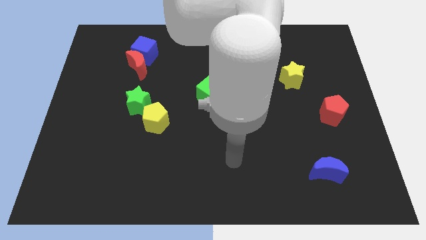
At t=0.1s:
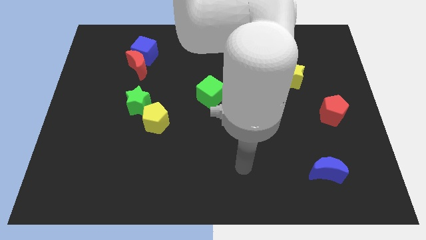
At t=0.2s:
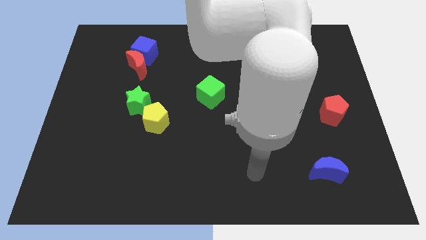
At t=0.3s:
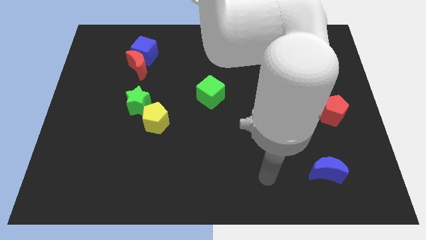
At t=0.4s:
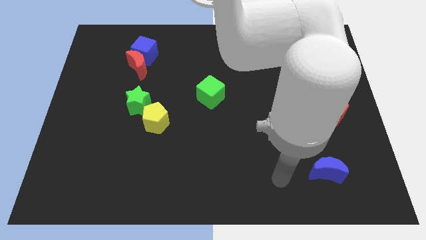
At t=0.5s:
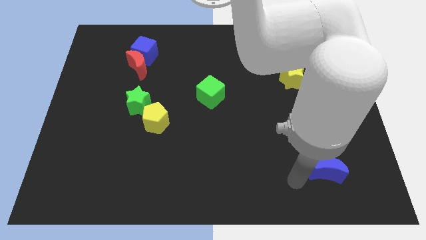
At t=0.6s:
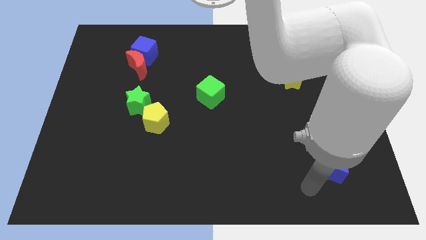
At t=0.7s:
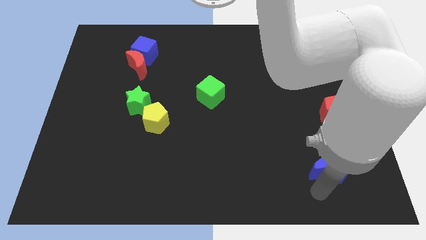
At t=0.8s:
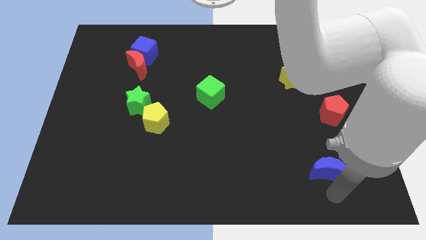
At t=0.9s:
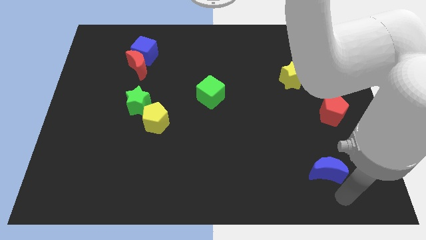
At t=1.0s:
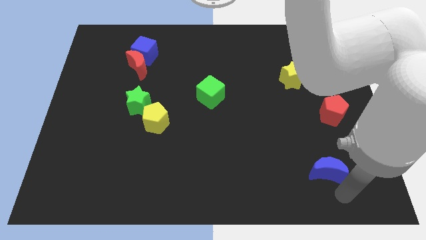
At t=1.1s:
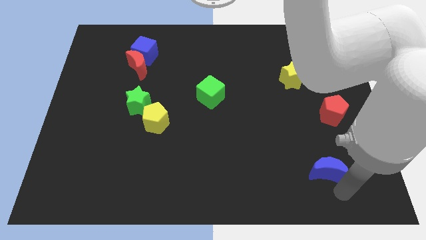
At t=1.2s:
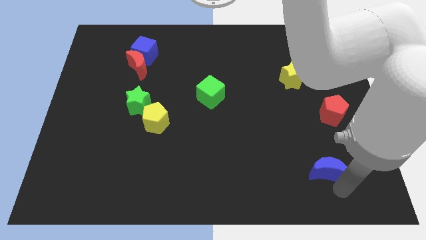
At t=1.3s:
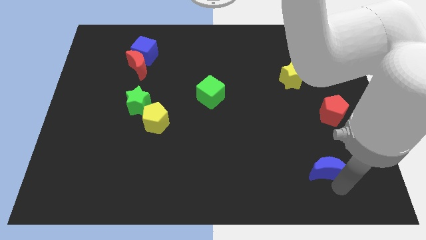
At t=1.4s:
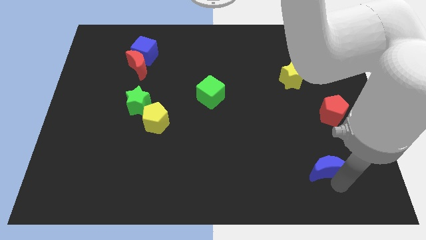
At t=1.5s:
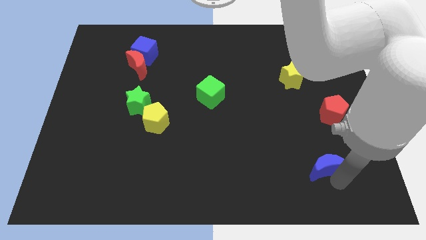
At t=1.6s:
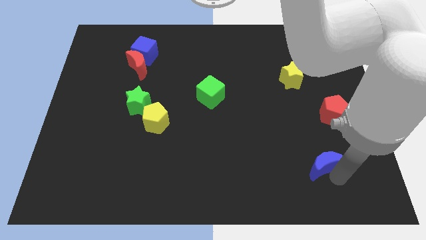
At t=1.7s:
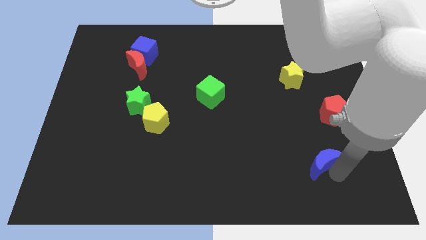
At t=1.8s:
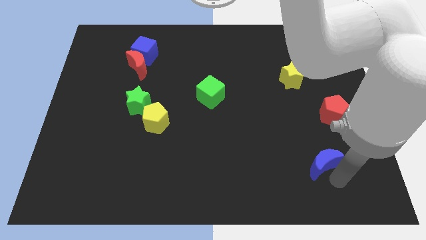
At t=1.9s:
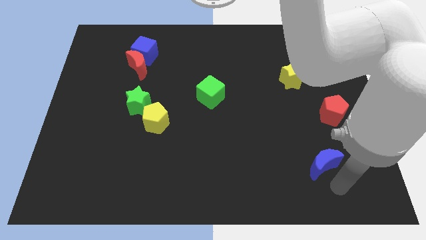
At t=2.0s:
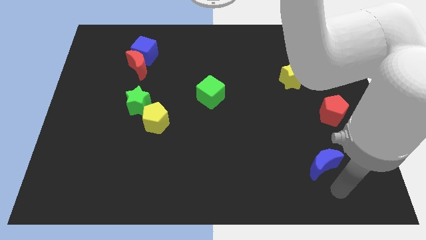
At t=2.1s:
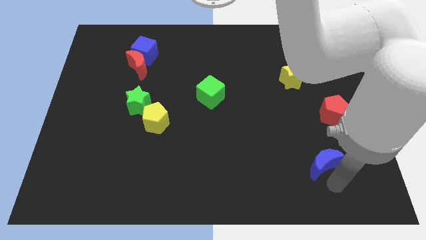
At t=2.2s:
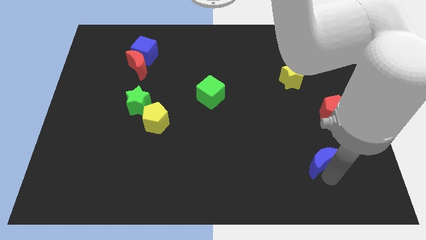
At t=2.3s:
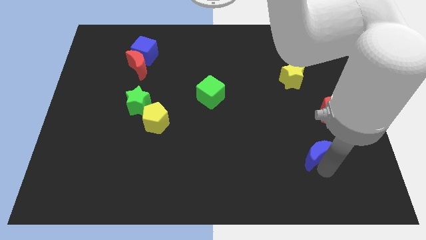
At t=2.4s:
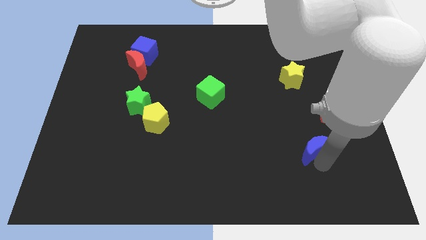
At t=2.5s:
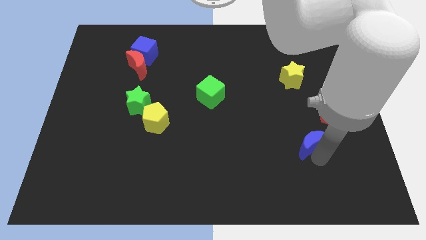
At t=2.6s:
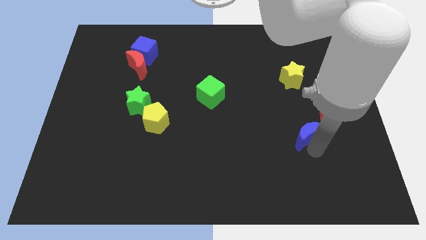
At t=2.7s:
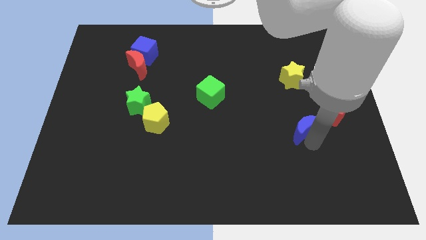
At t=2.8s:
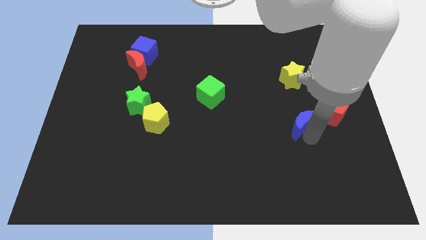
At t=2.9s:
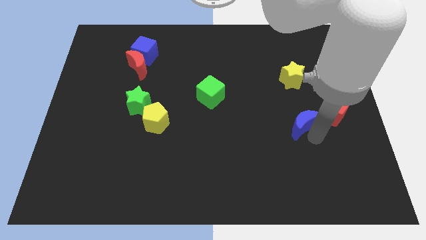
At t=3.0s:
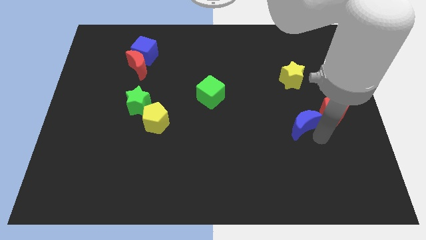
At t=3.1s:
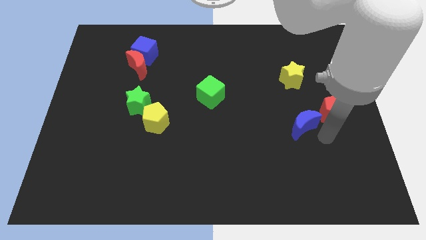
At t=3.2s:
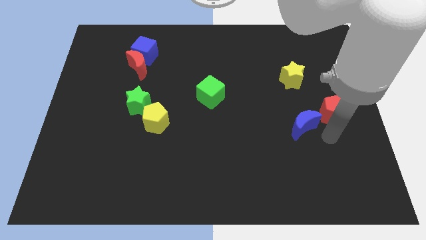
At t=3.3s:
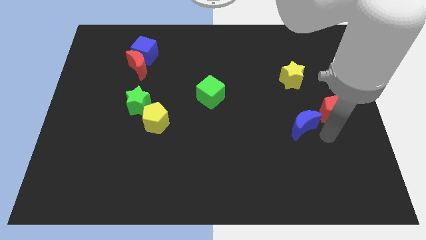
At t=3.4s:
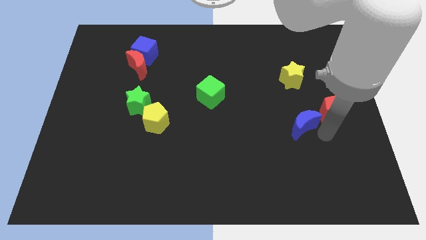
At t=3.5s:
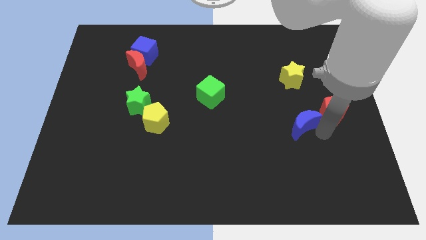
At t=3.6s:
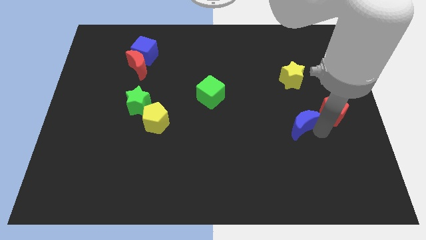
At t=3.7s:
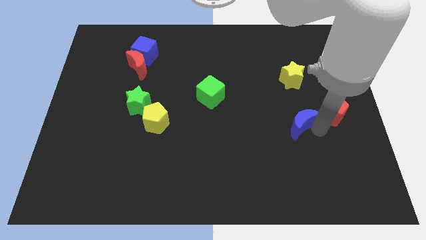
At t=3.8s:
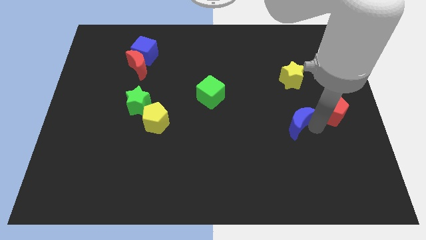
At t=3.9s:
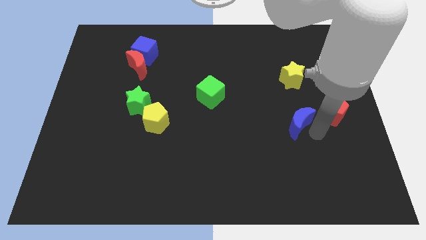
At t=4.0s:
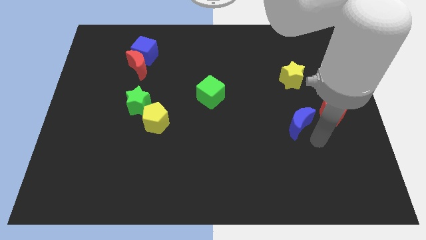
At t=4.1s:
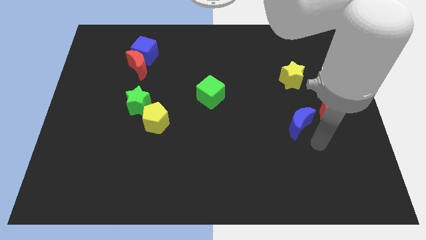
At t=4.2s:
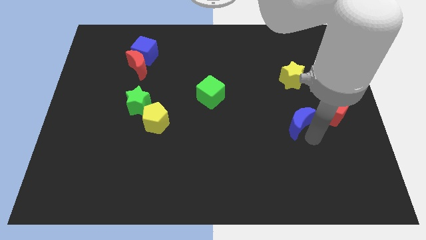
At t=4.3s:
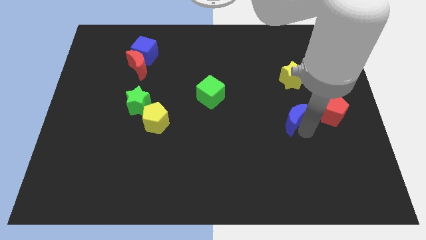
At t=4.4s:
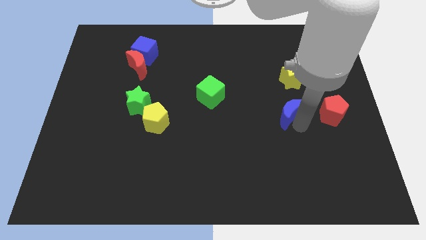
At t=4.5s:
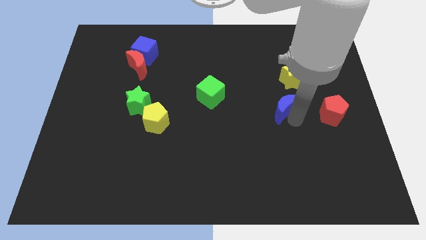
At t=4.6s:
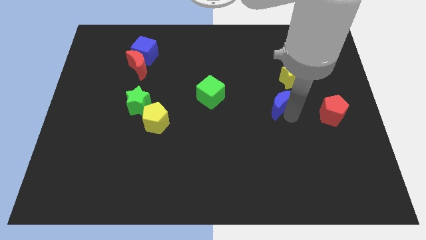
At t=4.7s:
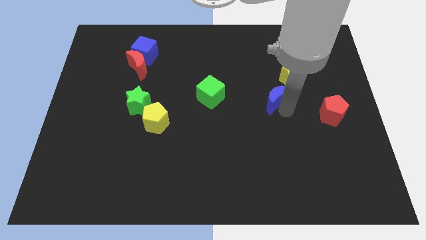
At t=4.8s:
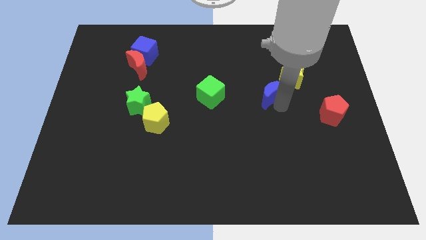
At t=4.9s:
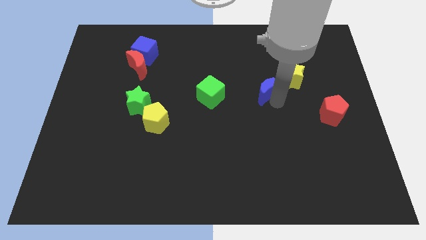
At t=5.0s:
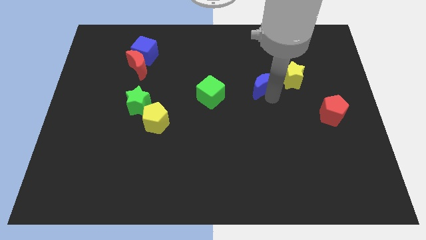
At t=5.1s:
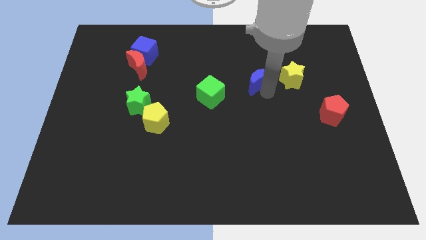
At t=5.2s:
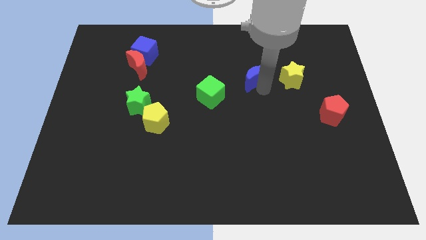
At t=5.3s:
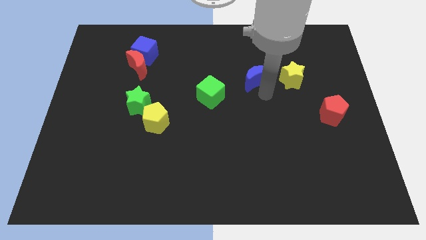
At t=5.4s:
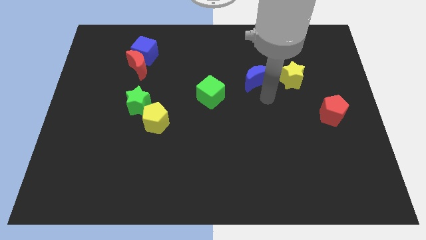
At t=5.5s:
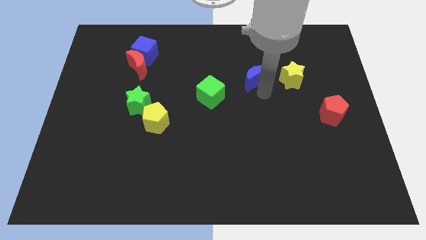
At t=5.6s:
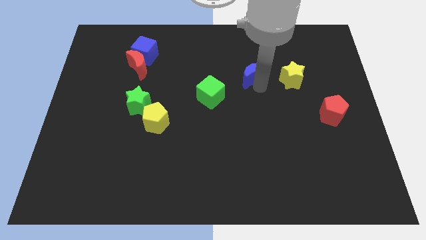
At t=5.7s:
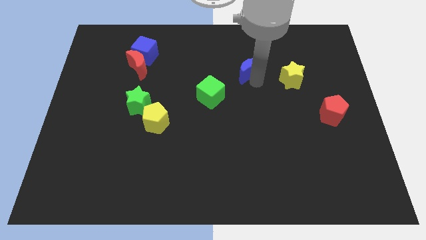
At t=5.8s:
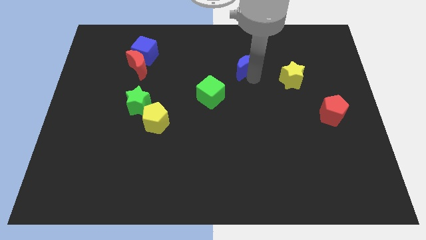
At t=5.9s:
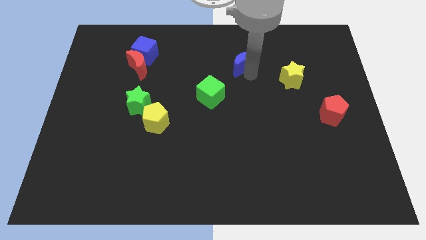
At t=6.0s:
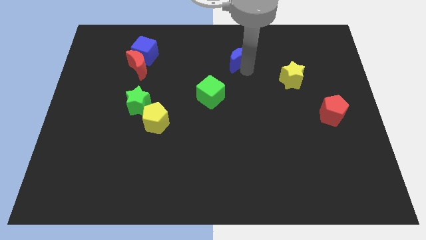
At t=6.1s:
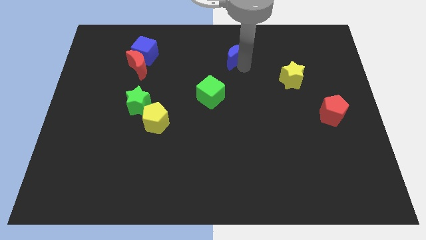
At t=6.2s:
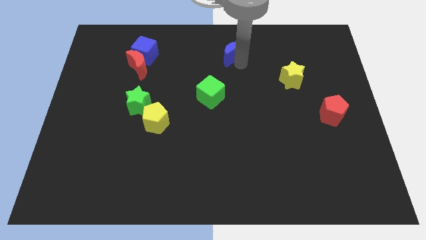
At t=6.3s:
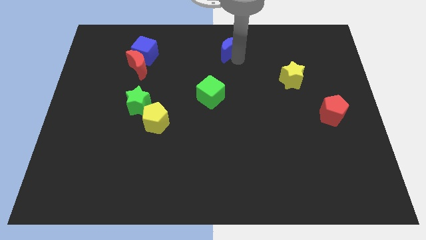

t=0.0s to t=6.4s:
slide the blue moon to the top side
